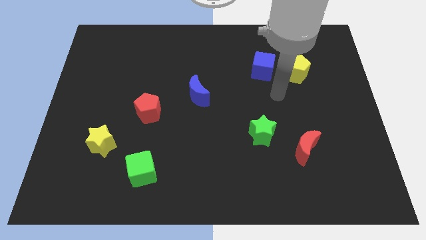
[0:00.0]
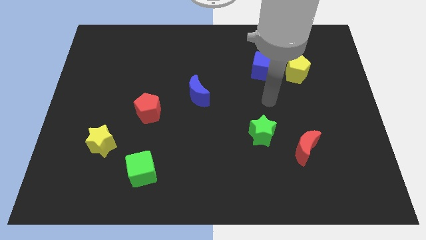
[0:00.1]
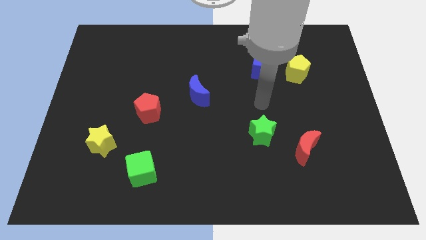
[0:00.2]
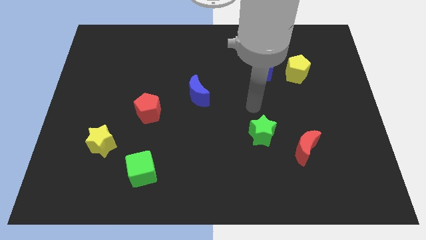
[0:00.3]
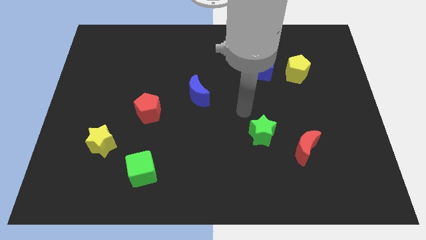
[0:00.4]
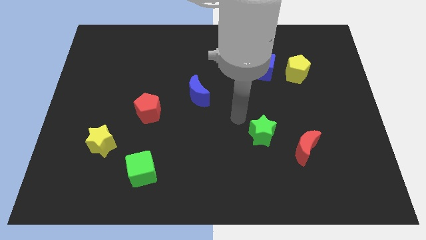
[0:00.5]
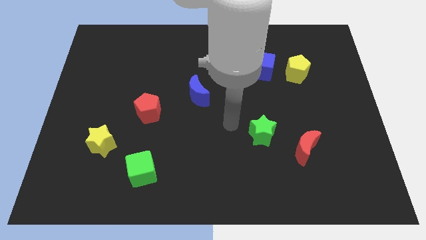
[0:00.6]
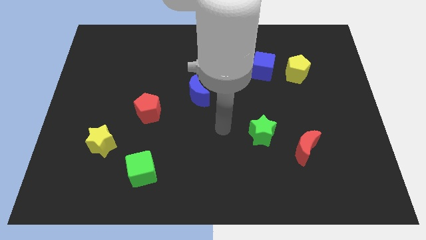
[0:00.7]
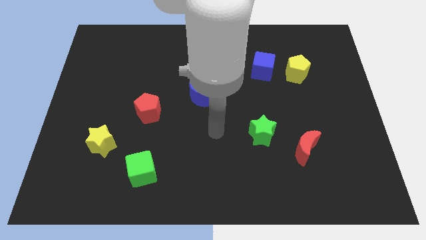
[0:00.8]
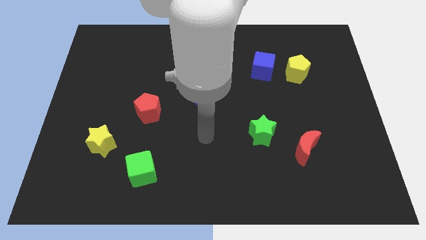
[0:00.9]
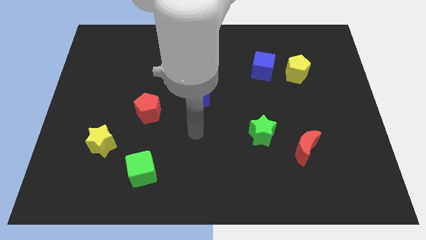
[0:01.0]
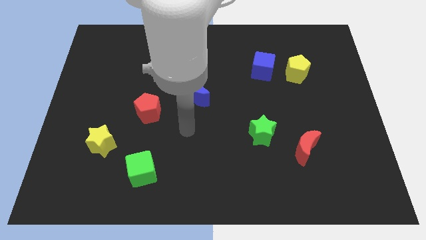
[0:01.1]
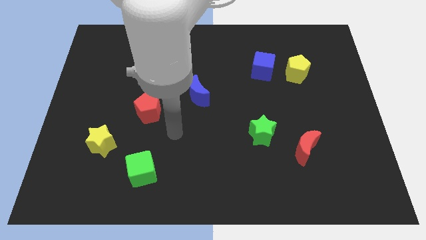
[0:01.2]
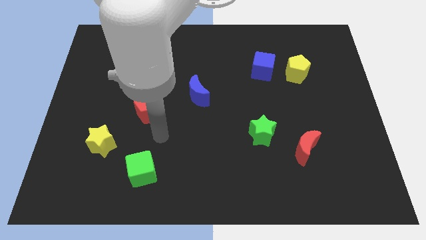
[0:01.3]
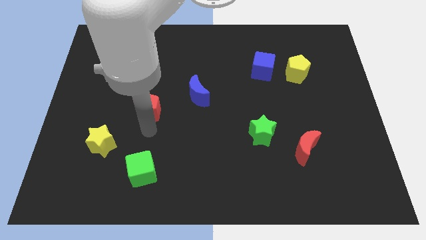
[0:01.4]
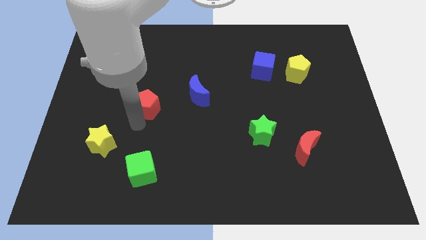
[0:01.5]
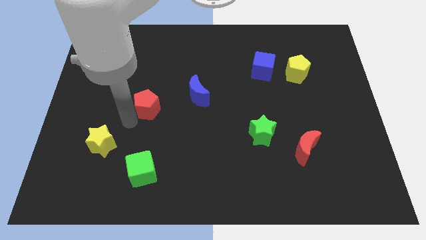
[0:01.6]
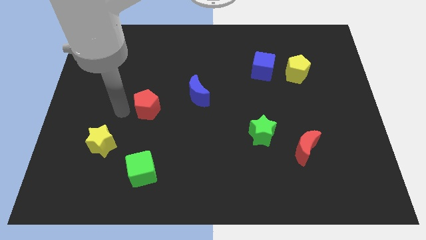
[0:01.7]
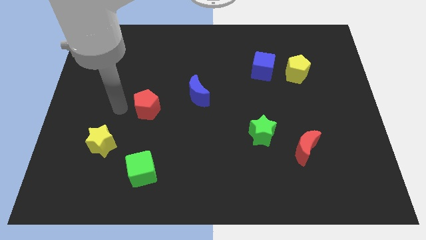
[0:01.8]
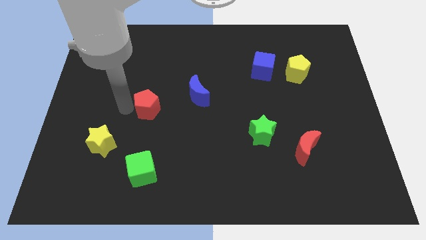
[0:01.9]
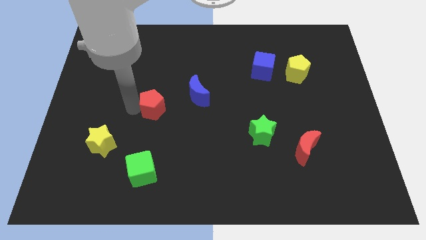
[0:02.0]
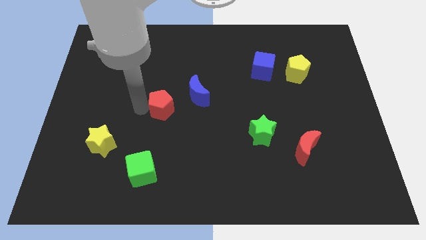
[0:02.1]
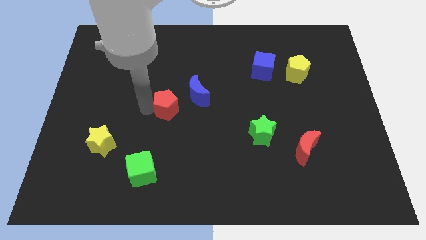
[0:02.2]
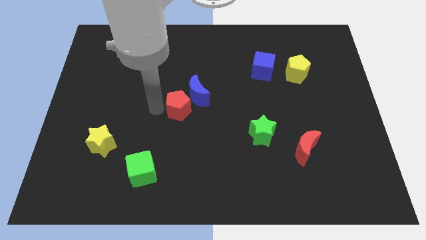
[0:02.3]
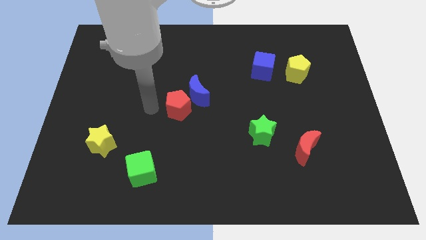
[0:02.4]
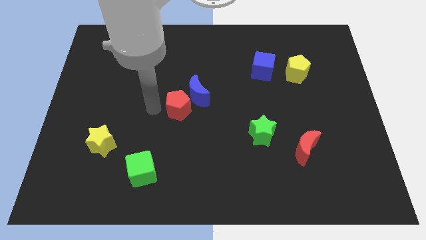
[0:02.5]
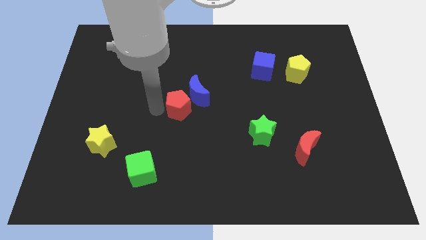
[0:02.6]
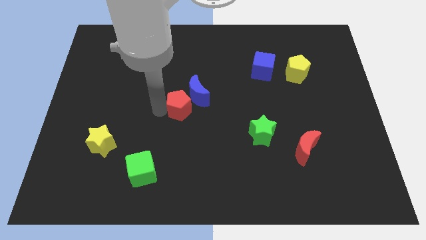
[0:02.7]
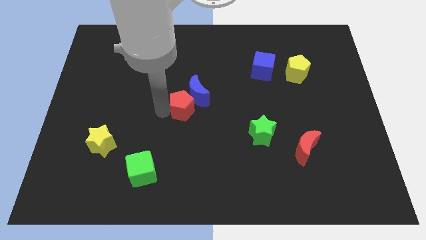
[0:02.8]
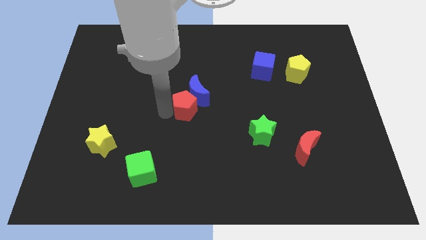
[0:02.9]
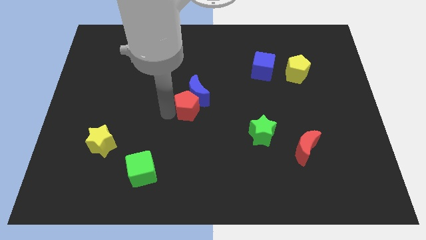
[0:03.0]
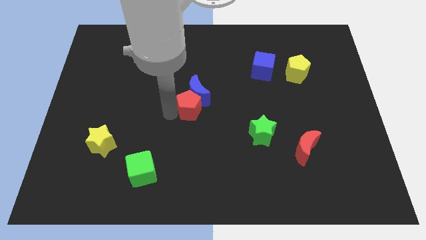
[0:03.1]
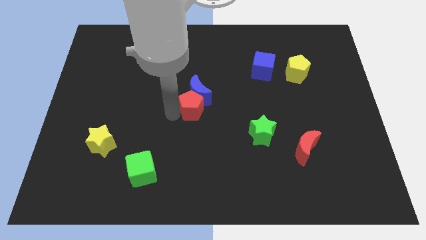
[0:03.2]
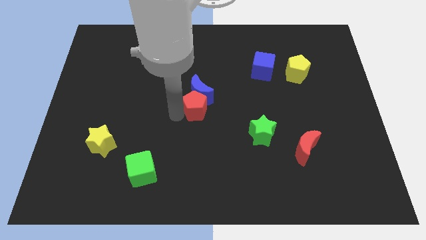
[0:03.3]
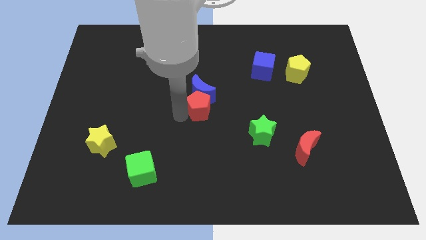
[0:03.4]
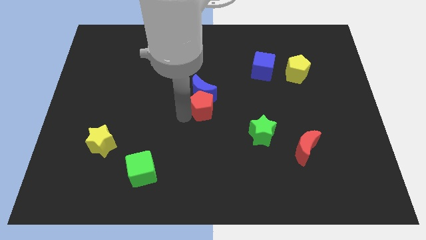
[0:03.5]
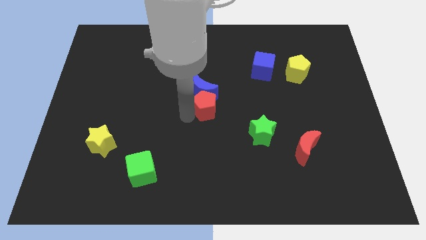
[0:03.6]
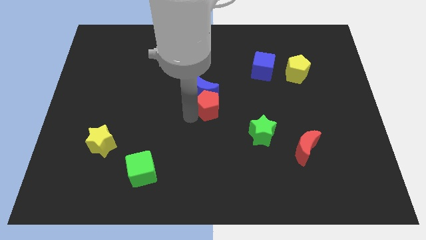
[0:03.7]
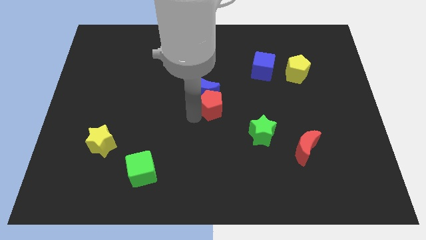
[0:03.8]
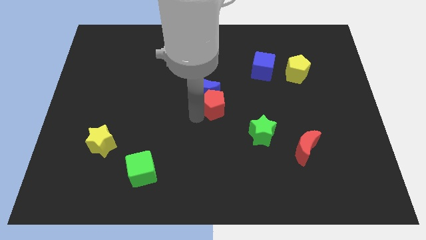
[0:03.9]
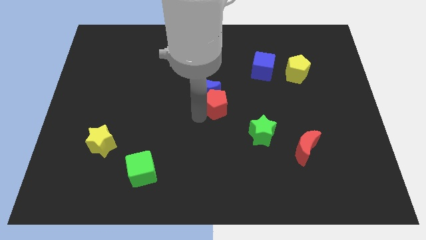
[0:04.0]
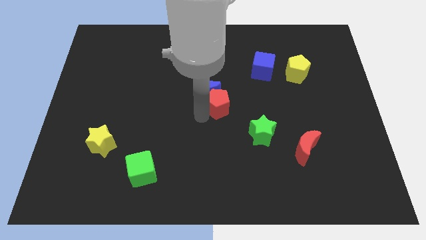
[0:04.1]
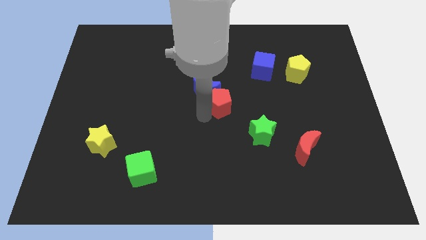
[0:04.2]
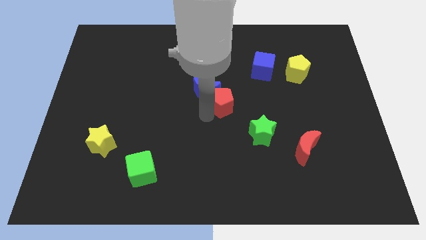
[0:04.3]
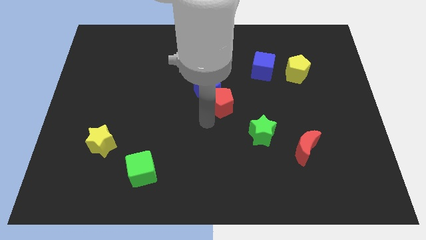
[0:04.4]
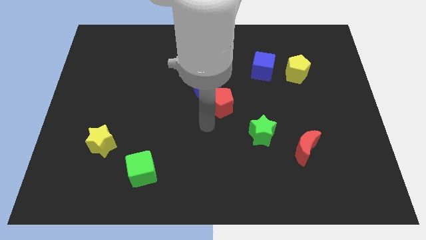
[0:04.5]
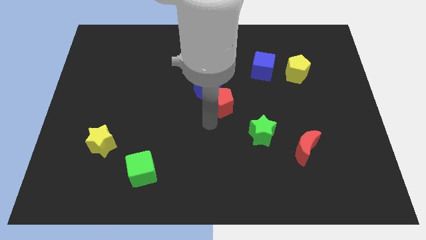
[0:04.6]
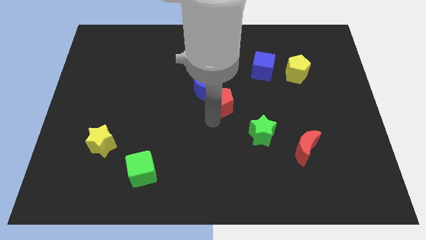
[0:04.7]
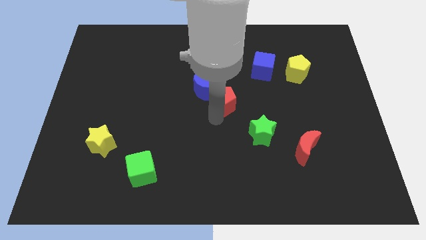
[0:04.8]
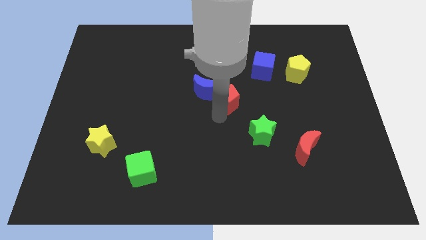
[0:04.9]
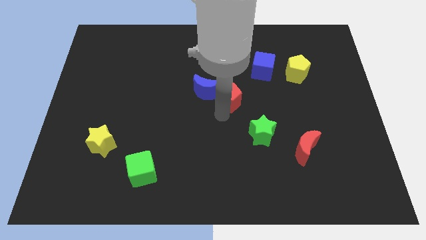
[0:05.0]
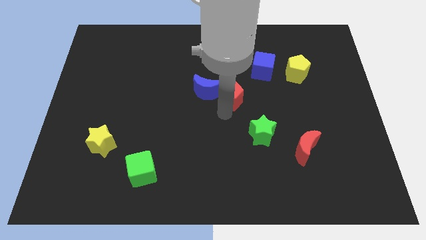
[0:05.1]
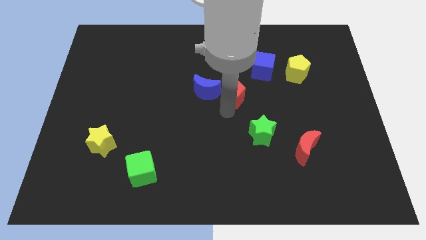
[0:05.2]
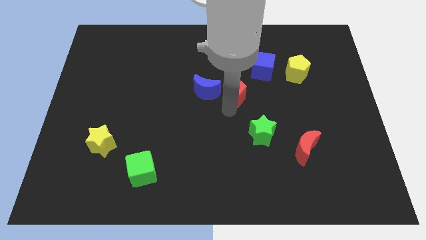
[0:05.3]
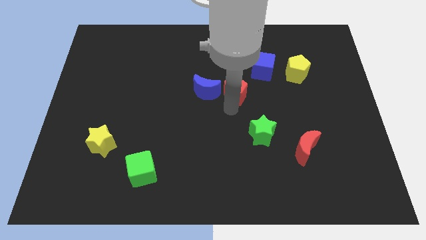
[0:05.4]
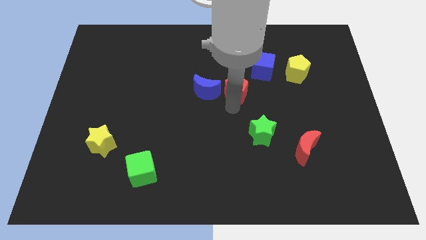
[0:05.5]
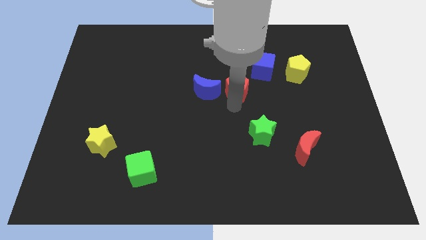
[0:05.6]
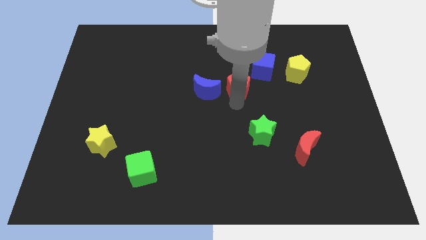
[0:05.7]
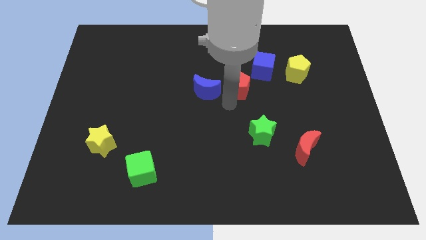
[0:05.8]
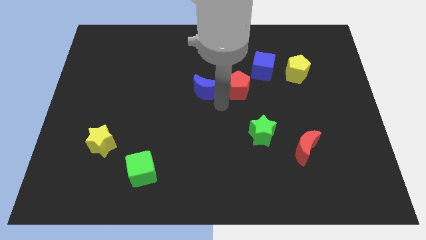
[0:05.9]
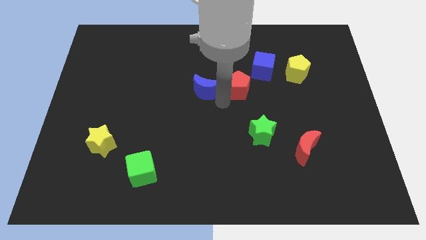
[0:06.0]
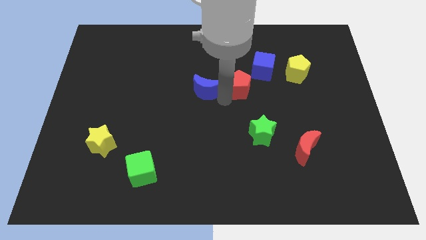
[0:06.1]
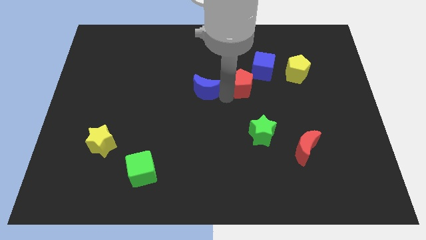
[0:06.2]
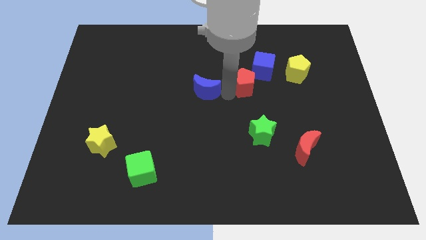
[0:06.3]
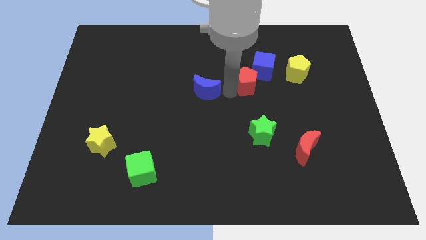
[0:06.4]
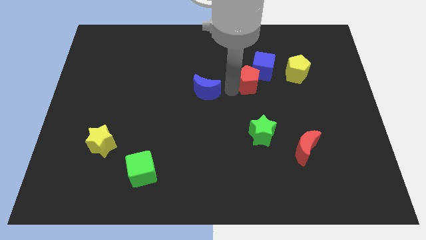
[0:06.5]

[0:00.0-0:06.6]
push the red pentagon next to the blue cube

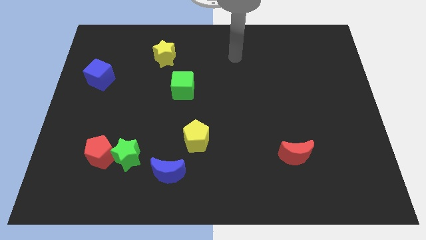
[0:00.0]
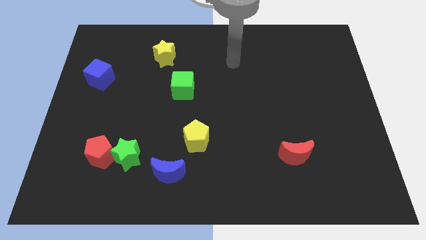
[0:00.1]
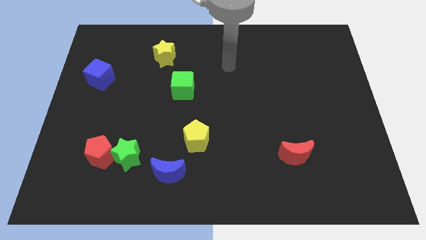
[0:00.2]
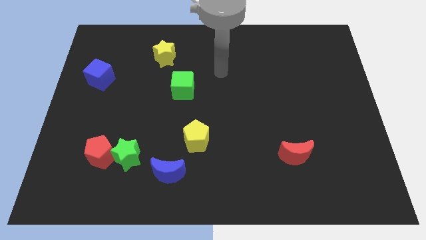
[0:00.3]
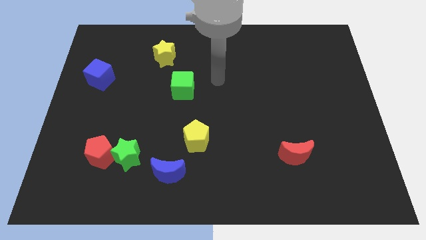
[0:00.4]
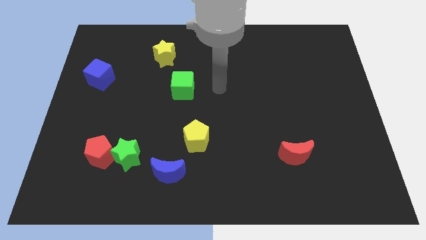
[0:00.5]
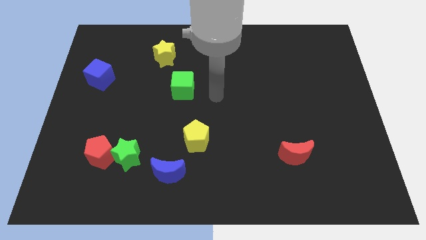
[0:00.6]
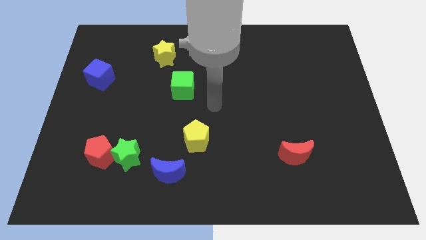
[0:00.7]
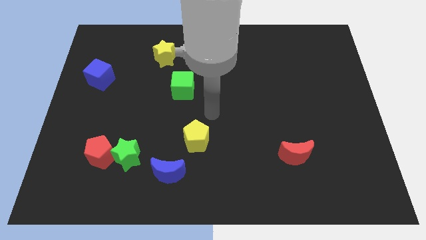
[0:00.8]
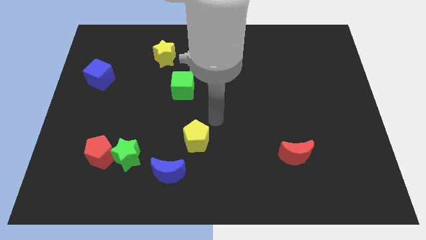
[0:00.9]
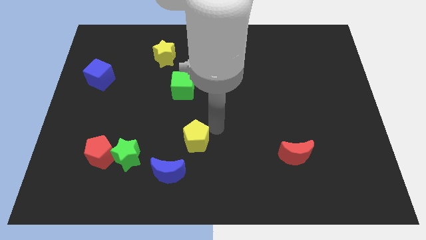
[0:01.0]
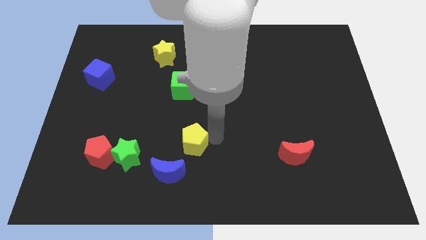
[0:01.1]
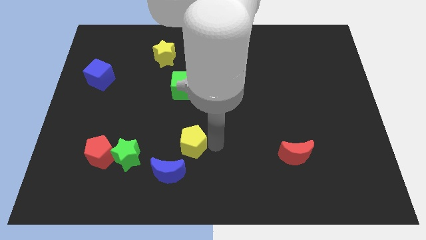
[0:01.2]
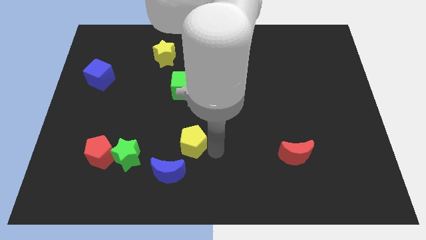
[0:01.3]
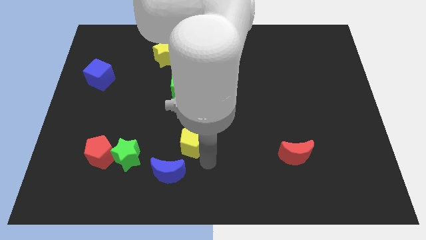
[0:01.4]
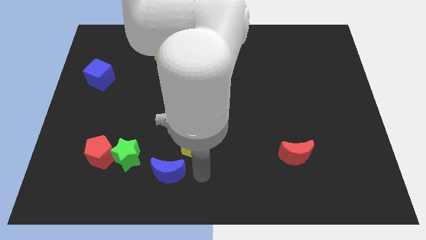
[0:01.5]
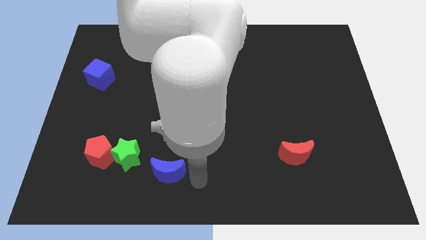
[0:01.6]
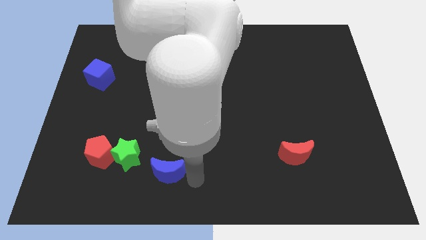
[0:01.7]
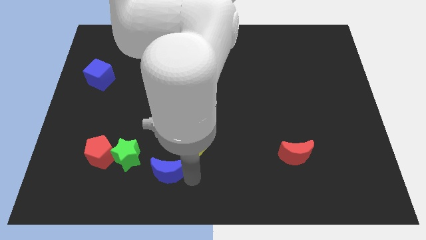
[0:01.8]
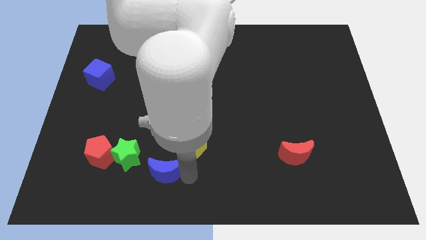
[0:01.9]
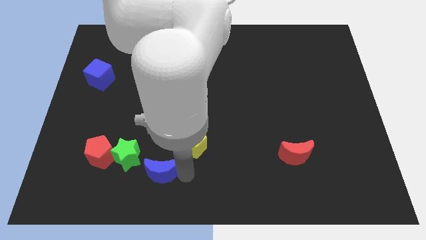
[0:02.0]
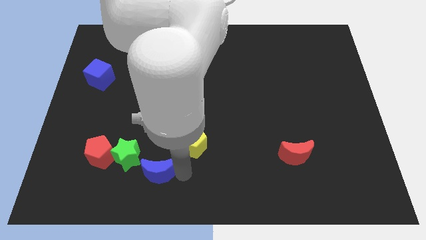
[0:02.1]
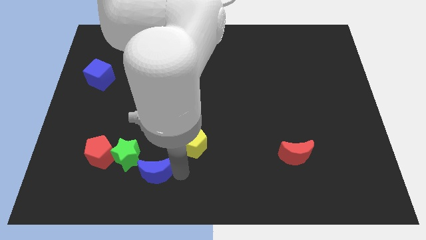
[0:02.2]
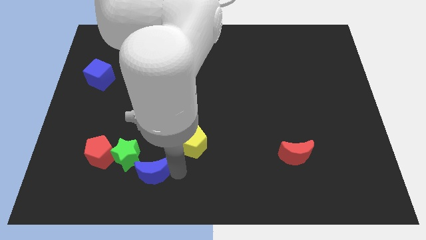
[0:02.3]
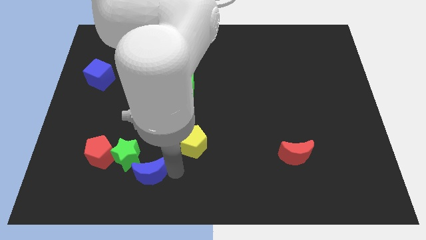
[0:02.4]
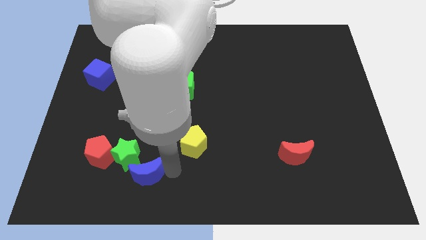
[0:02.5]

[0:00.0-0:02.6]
slide the blue moon towards the green star
